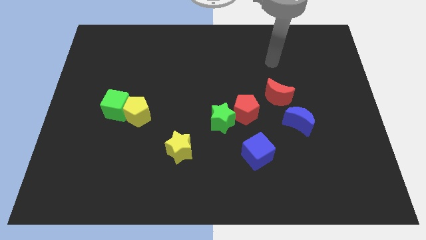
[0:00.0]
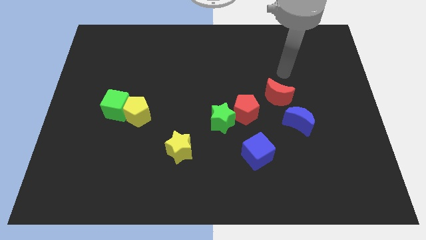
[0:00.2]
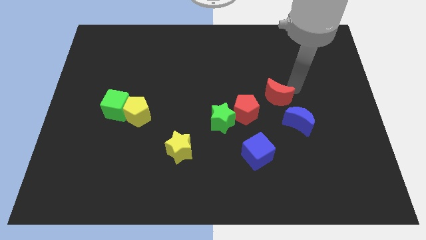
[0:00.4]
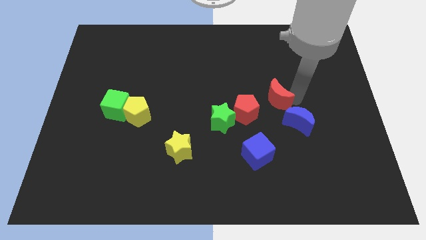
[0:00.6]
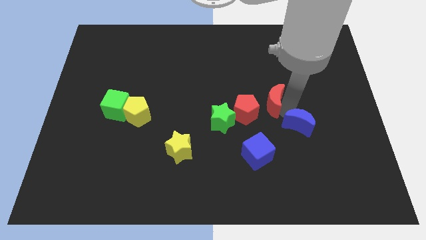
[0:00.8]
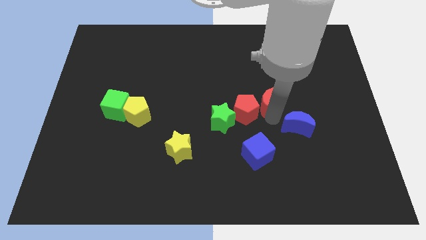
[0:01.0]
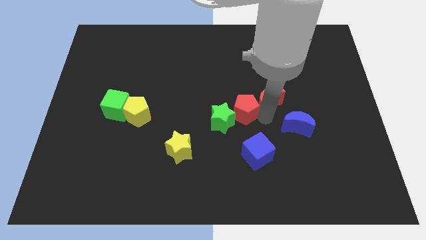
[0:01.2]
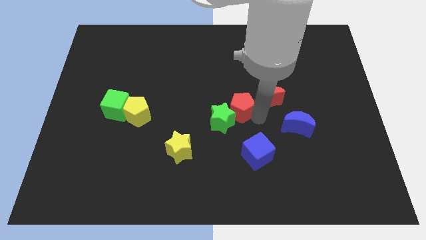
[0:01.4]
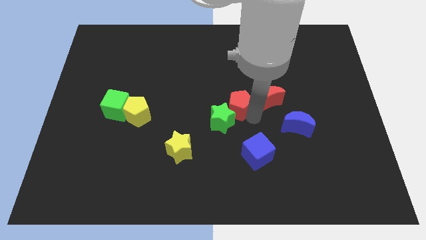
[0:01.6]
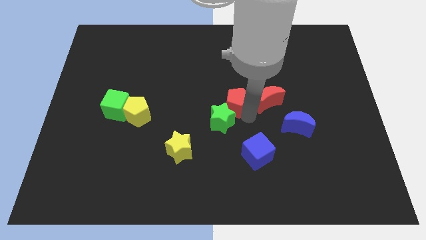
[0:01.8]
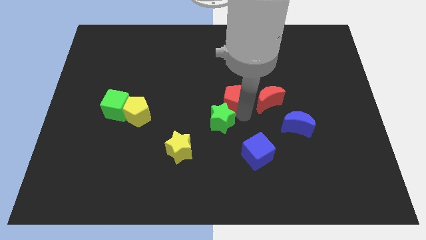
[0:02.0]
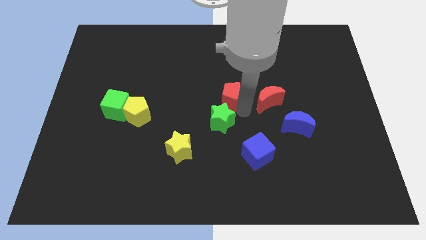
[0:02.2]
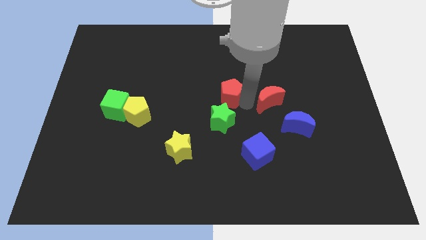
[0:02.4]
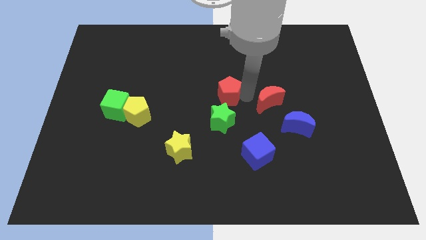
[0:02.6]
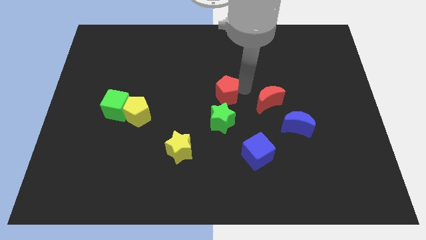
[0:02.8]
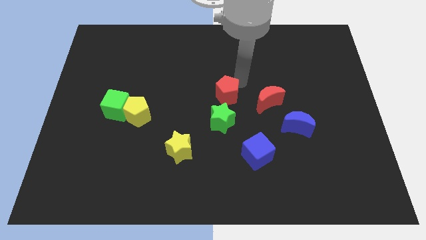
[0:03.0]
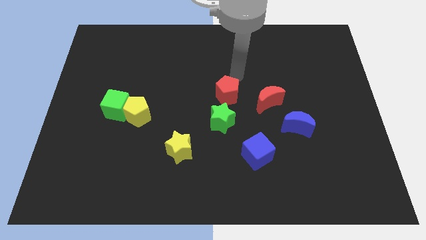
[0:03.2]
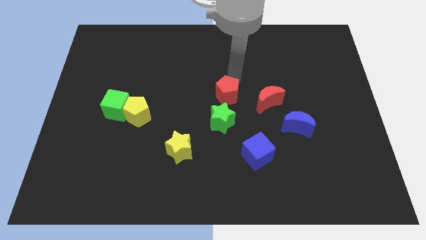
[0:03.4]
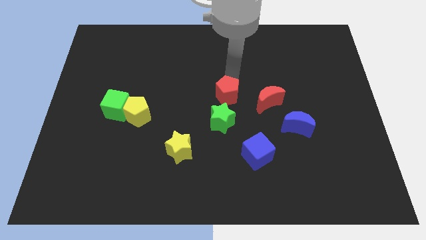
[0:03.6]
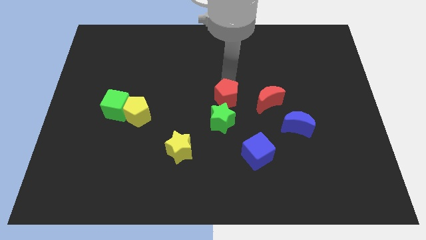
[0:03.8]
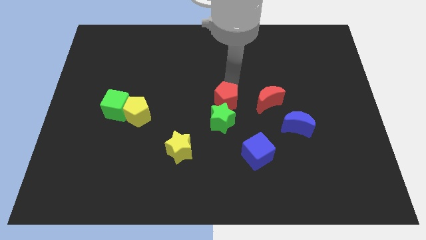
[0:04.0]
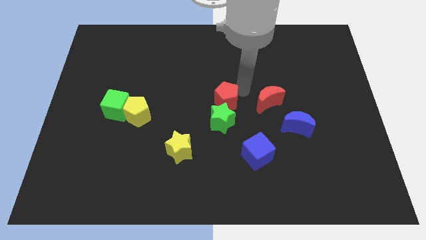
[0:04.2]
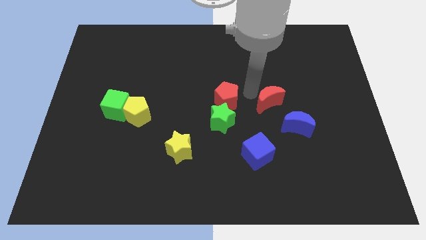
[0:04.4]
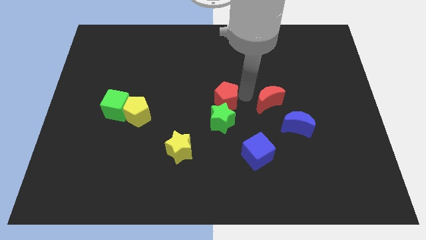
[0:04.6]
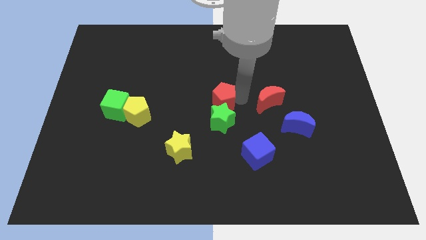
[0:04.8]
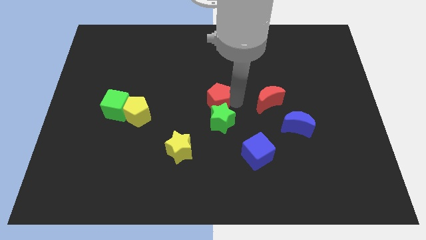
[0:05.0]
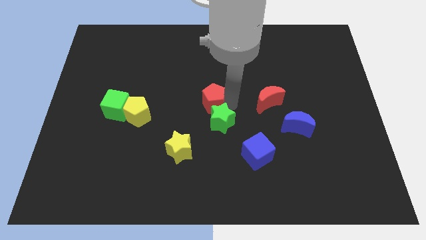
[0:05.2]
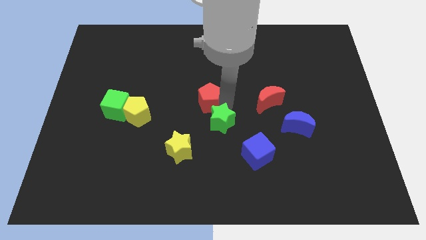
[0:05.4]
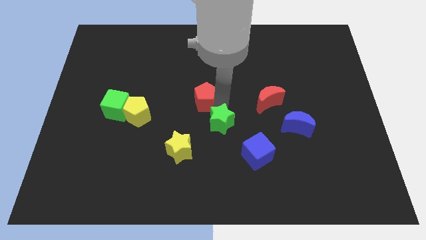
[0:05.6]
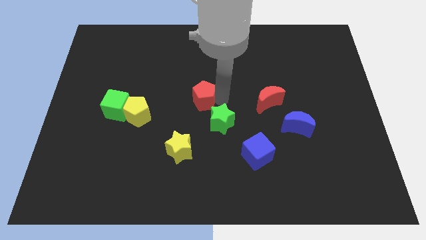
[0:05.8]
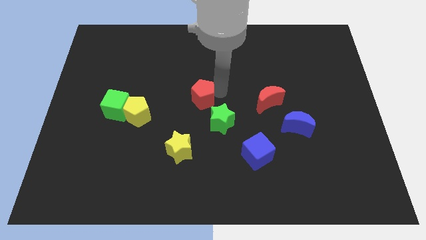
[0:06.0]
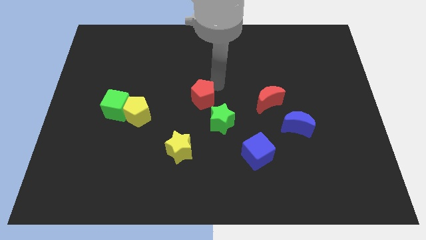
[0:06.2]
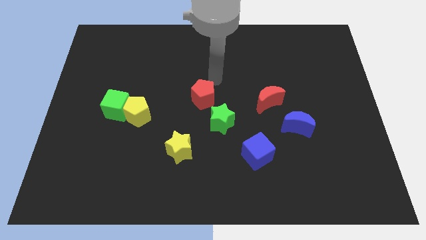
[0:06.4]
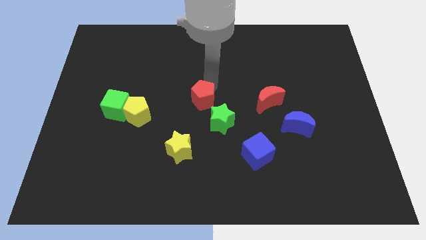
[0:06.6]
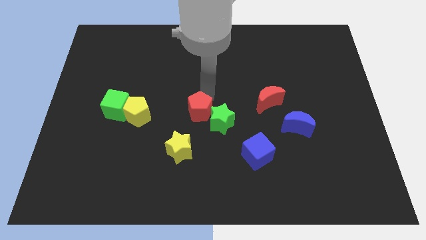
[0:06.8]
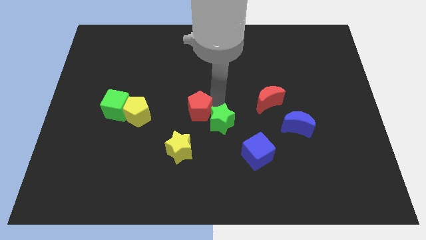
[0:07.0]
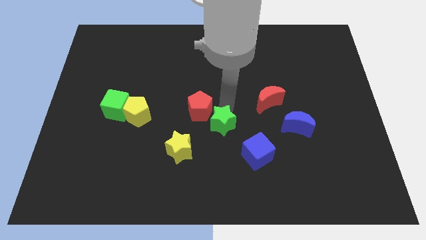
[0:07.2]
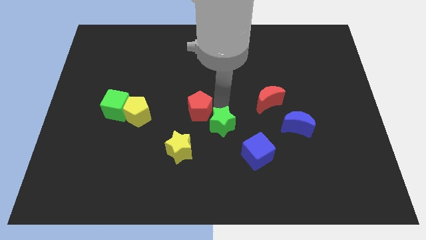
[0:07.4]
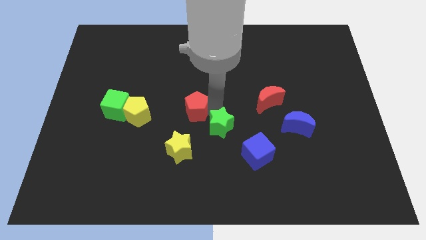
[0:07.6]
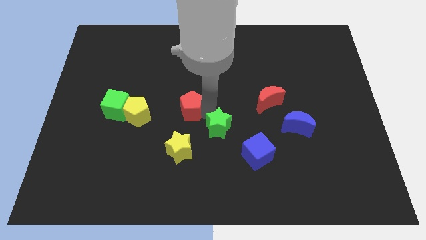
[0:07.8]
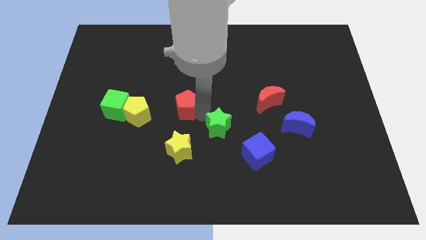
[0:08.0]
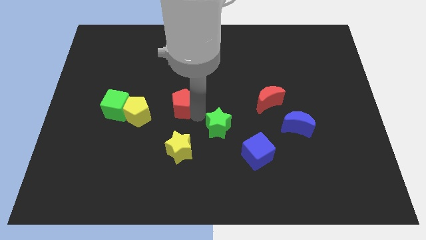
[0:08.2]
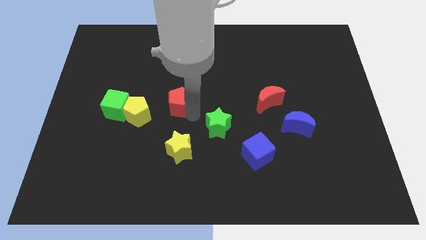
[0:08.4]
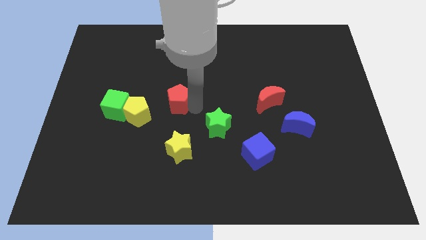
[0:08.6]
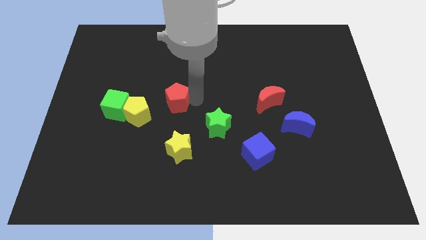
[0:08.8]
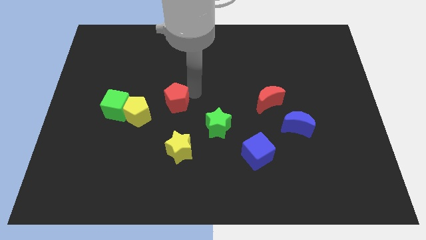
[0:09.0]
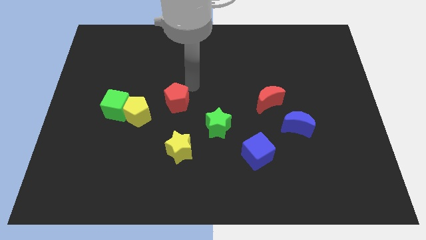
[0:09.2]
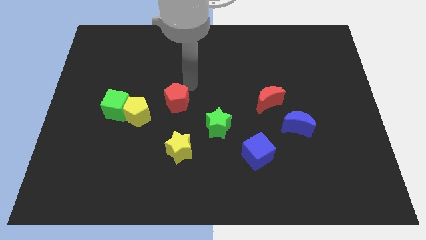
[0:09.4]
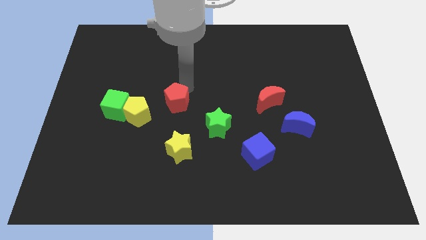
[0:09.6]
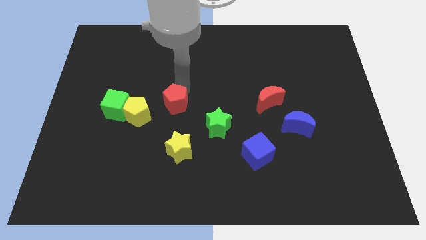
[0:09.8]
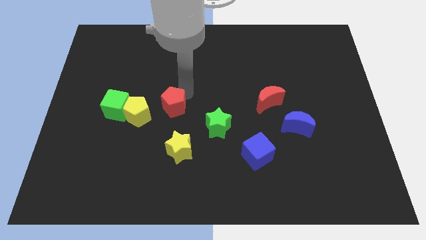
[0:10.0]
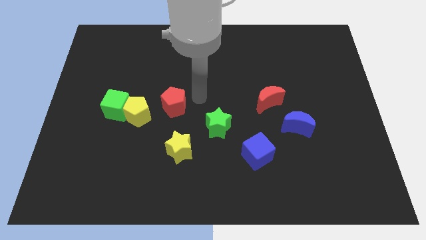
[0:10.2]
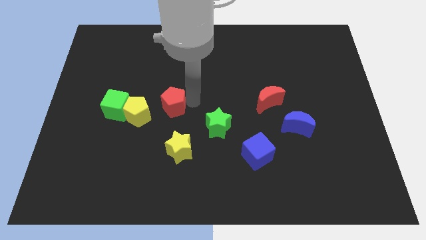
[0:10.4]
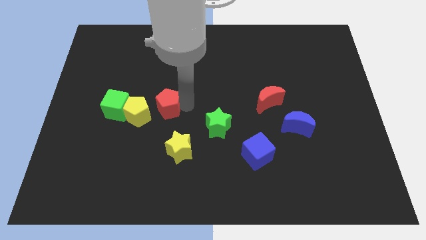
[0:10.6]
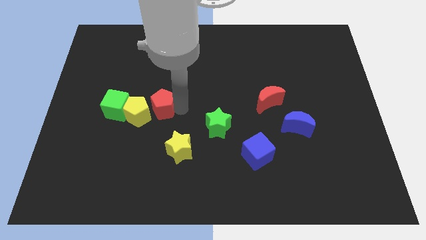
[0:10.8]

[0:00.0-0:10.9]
slide the red pentagon towards the yellow pentagon

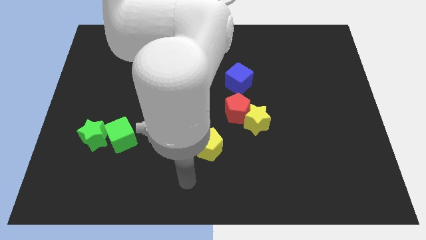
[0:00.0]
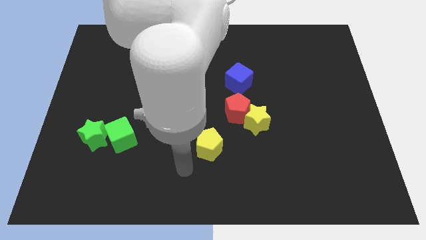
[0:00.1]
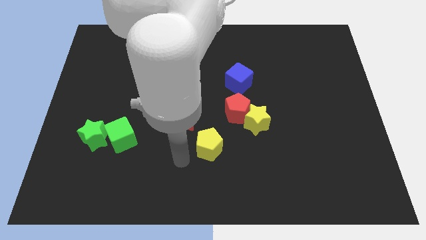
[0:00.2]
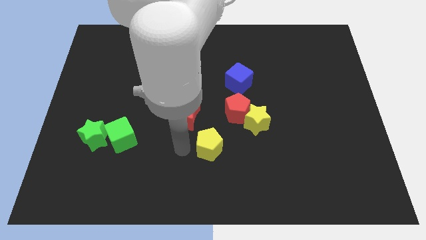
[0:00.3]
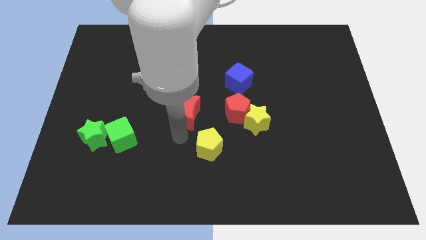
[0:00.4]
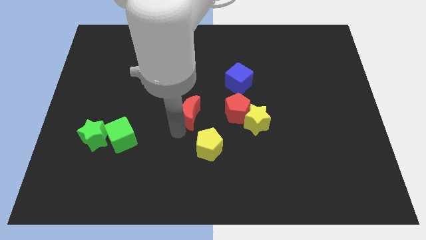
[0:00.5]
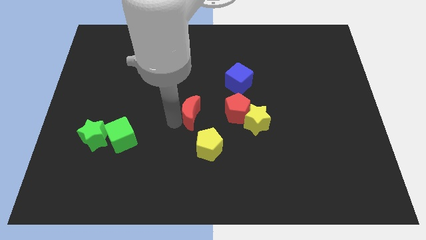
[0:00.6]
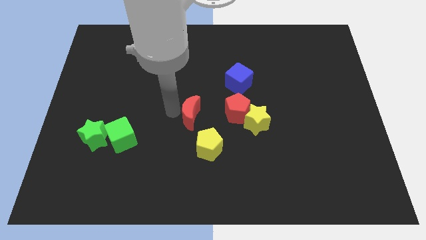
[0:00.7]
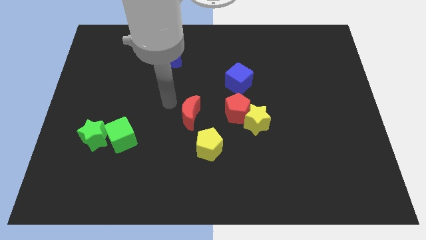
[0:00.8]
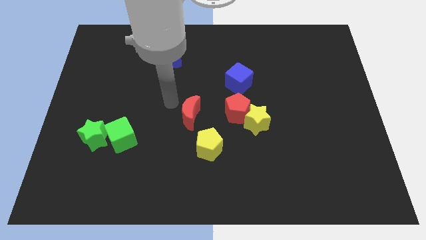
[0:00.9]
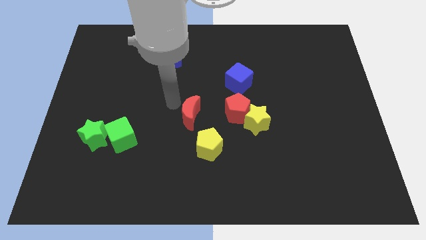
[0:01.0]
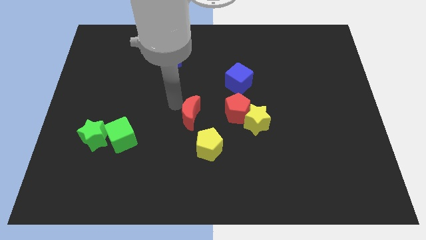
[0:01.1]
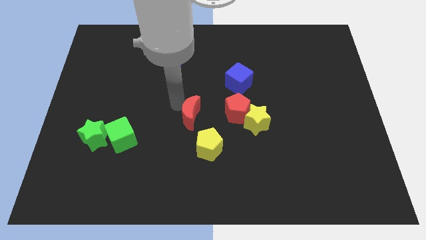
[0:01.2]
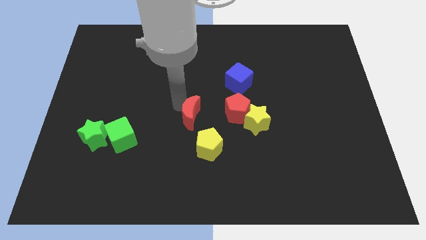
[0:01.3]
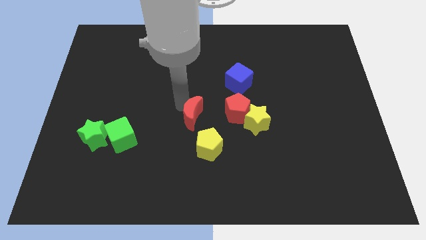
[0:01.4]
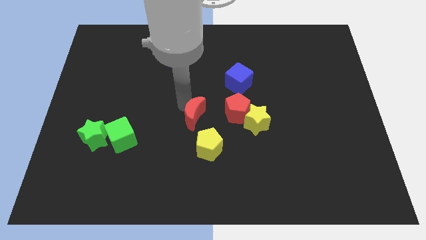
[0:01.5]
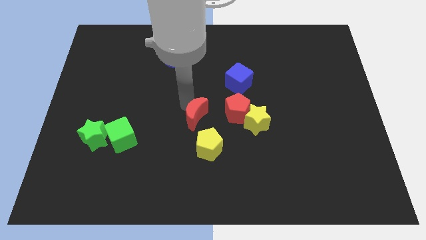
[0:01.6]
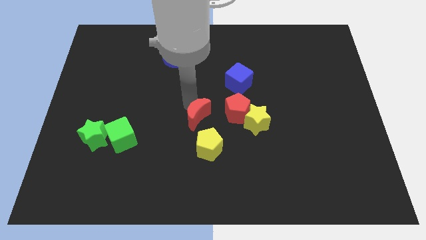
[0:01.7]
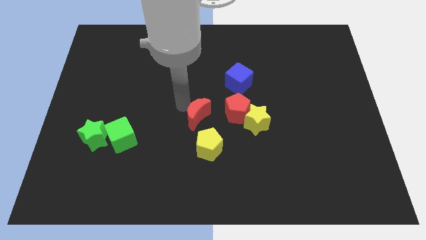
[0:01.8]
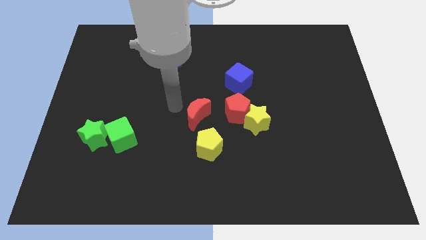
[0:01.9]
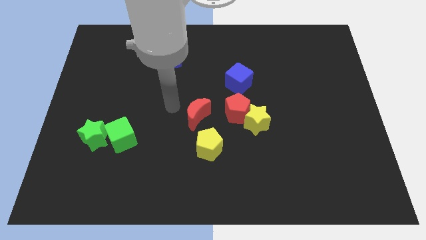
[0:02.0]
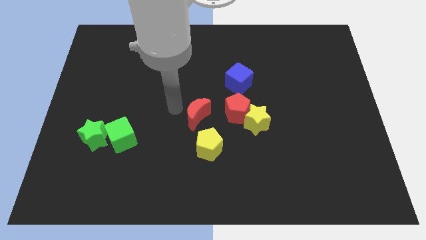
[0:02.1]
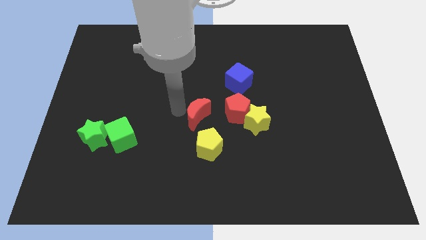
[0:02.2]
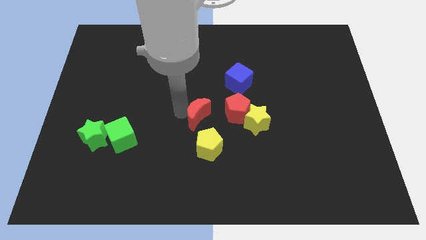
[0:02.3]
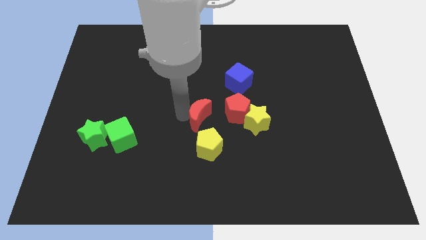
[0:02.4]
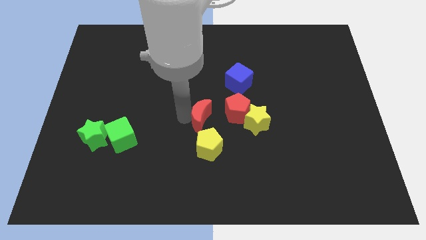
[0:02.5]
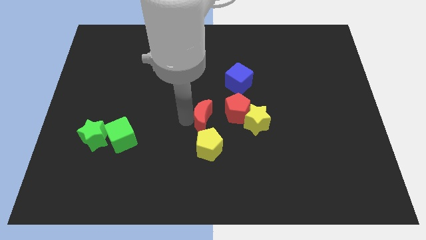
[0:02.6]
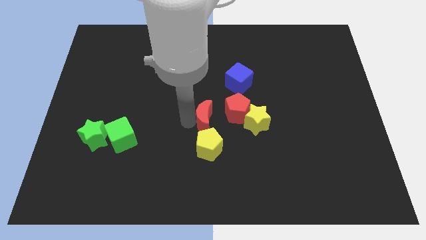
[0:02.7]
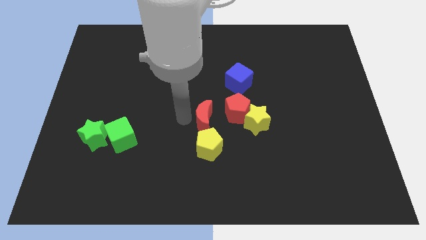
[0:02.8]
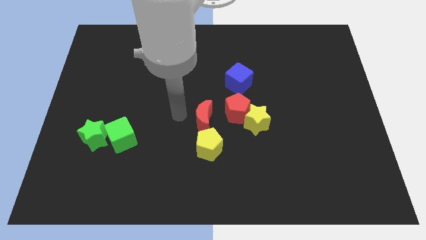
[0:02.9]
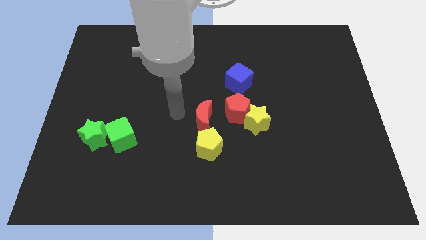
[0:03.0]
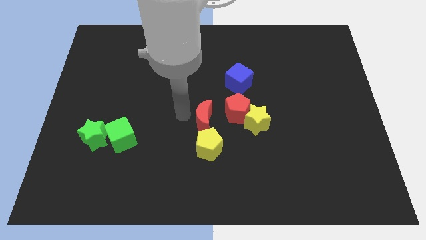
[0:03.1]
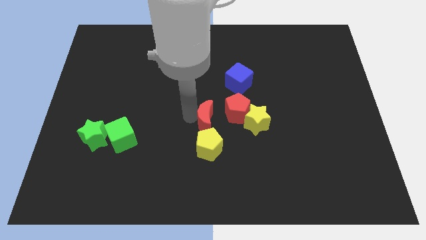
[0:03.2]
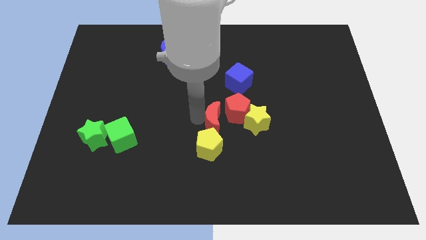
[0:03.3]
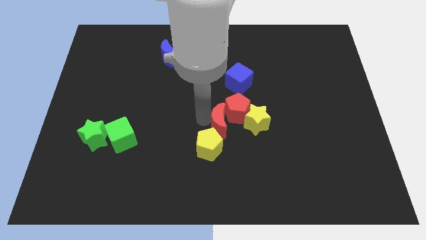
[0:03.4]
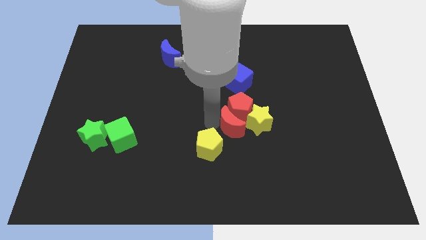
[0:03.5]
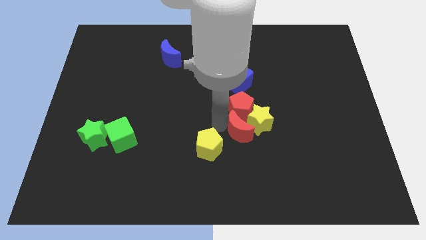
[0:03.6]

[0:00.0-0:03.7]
move the red moon close to the yellow star
